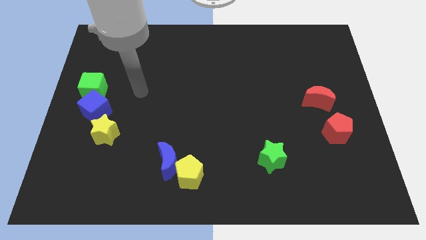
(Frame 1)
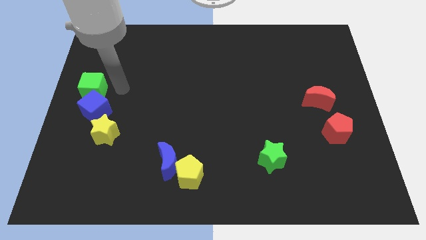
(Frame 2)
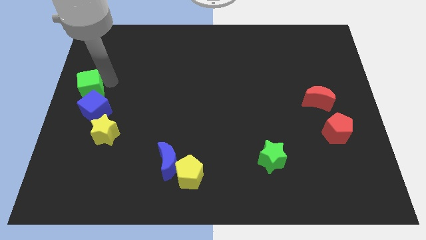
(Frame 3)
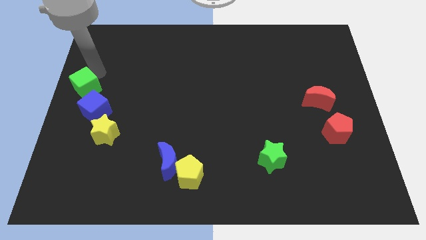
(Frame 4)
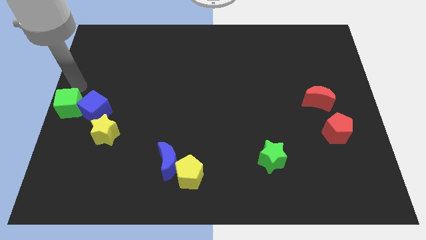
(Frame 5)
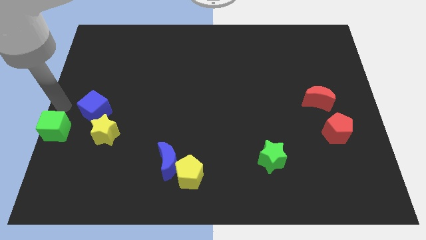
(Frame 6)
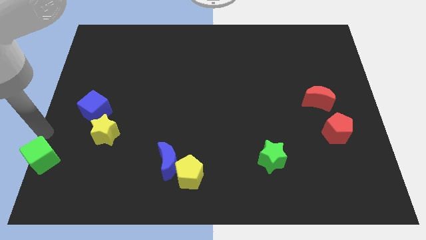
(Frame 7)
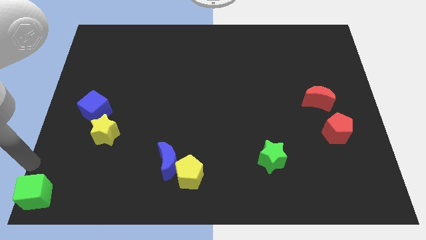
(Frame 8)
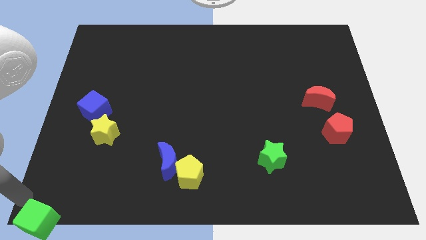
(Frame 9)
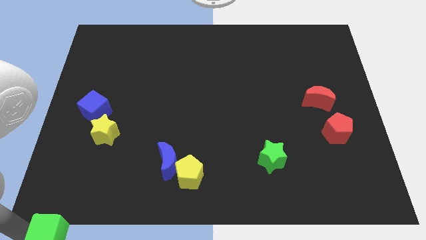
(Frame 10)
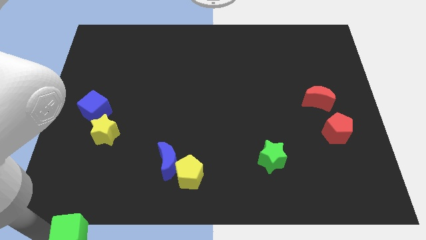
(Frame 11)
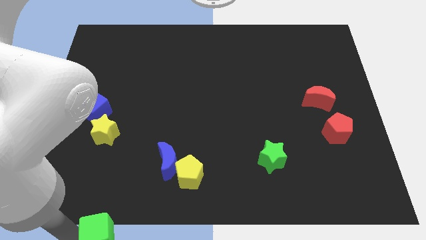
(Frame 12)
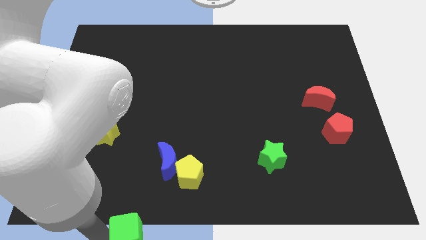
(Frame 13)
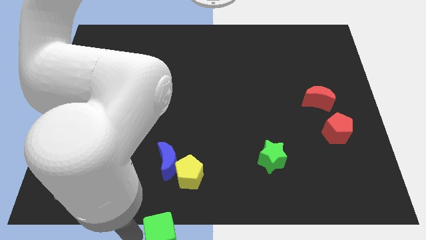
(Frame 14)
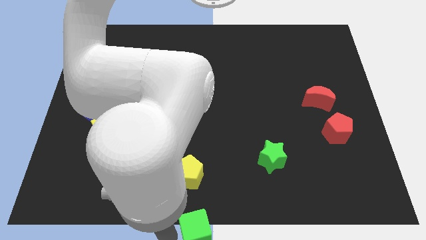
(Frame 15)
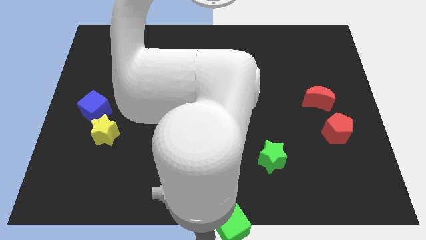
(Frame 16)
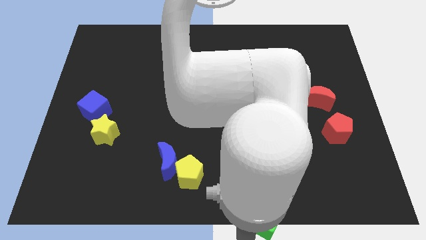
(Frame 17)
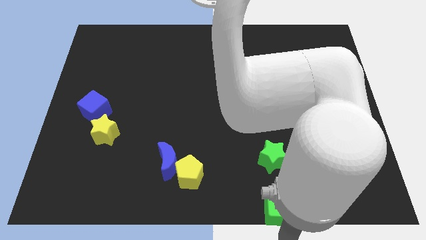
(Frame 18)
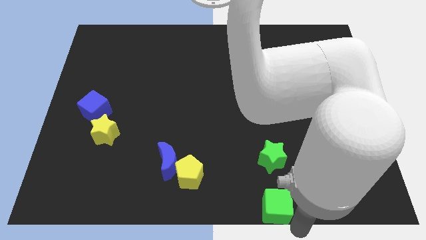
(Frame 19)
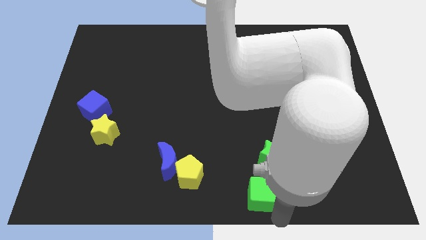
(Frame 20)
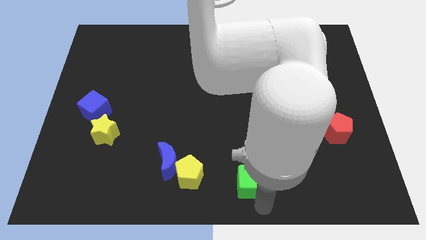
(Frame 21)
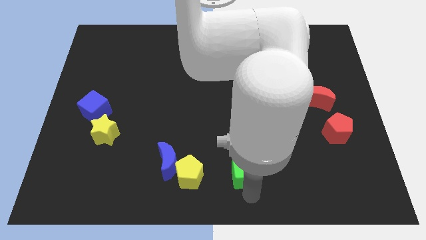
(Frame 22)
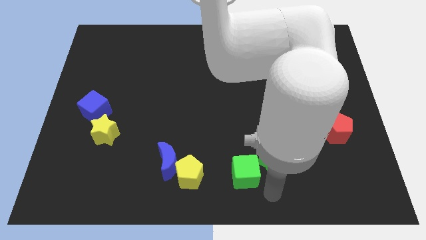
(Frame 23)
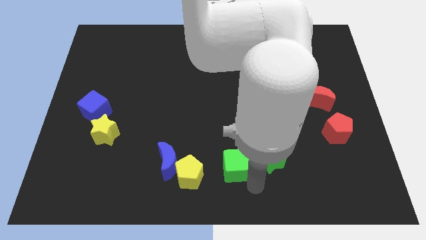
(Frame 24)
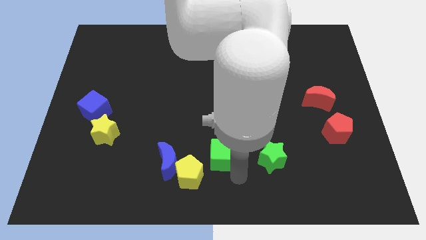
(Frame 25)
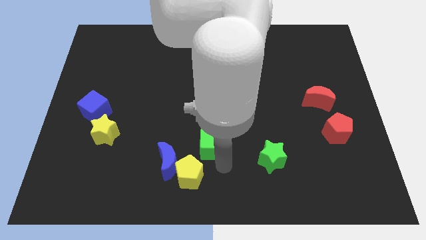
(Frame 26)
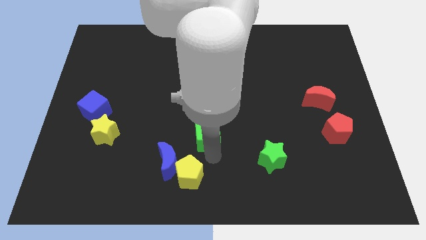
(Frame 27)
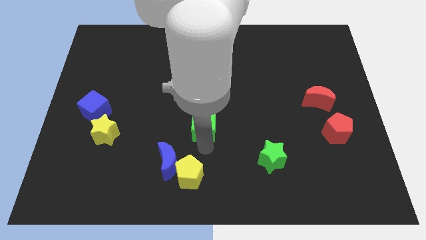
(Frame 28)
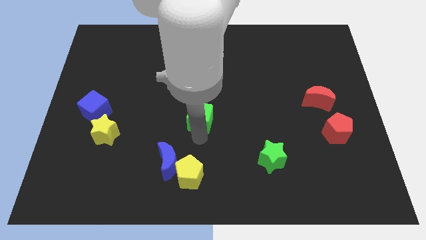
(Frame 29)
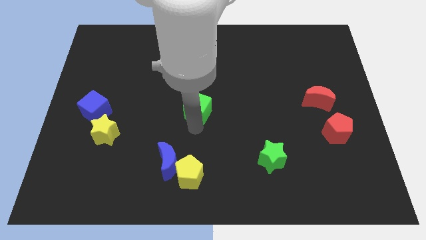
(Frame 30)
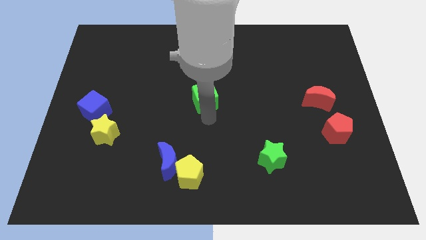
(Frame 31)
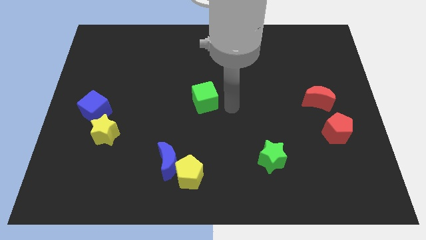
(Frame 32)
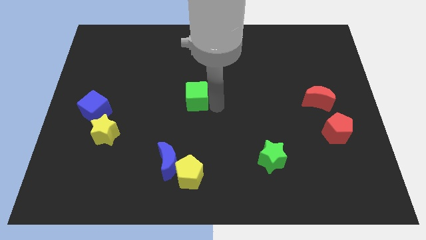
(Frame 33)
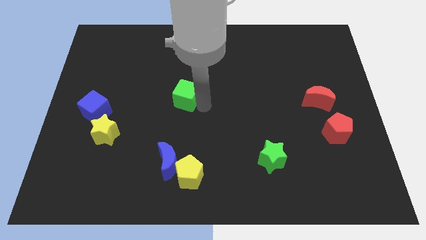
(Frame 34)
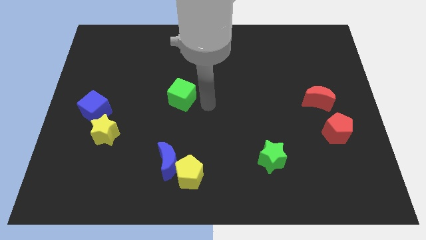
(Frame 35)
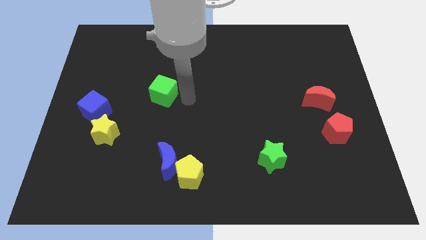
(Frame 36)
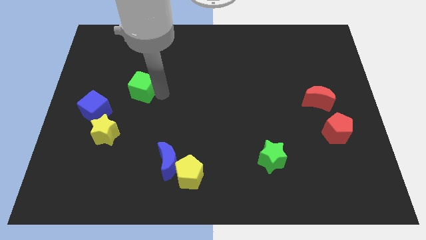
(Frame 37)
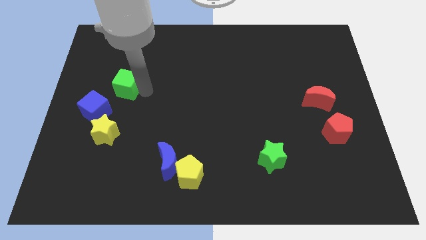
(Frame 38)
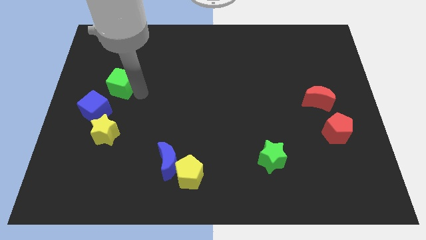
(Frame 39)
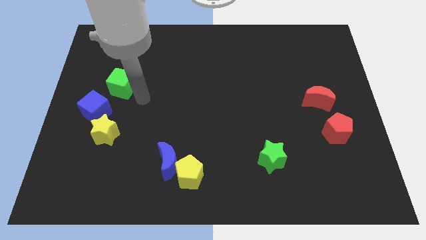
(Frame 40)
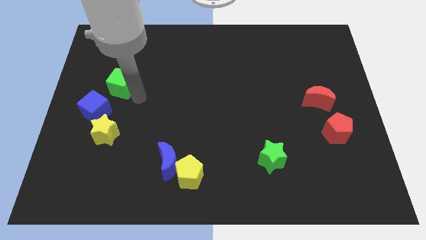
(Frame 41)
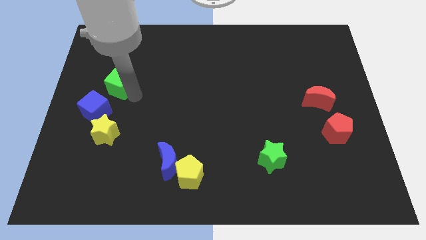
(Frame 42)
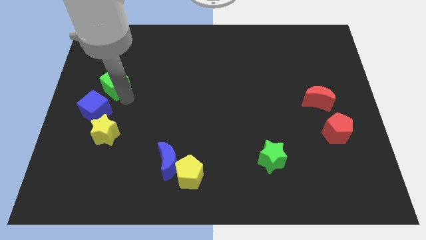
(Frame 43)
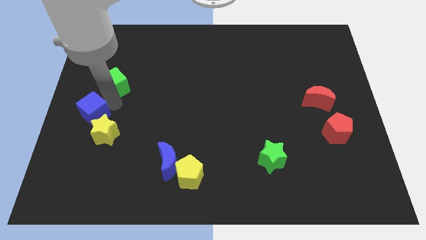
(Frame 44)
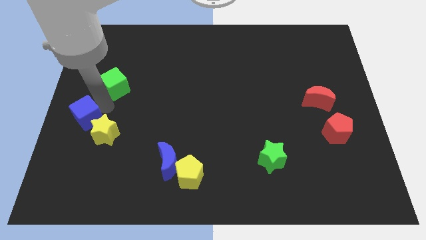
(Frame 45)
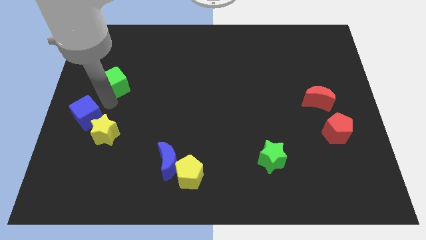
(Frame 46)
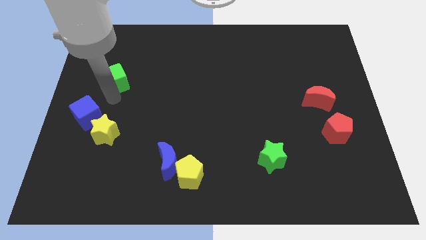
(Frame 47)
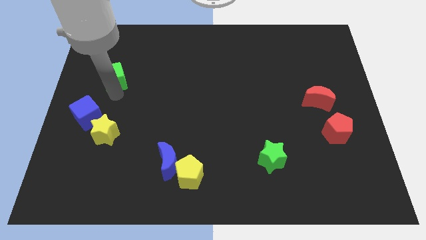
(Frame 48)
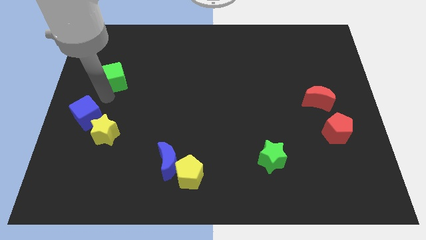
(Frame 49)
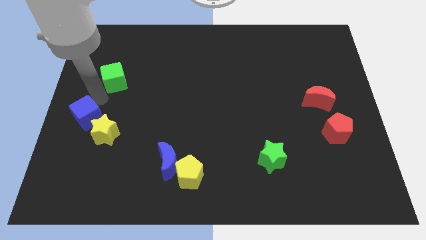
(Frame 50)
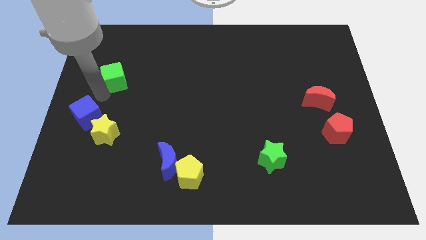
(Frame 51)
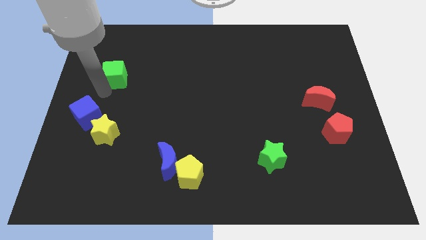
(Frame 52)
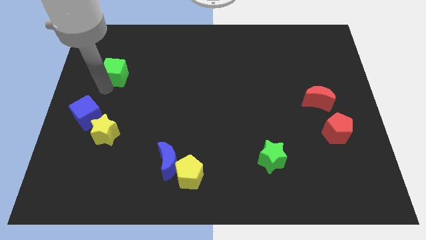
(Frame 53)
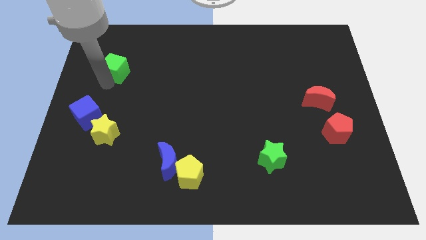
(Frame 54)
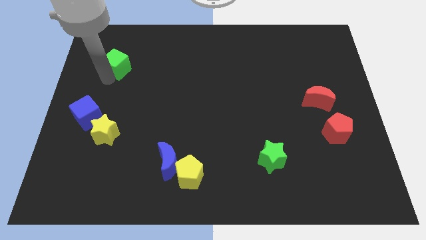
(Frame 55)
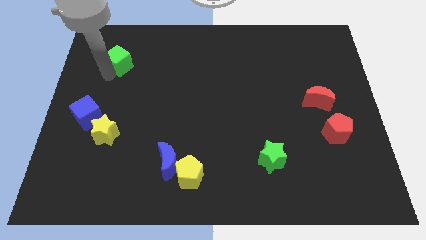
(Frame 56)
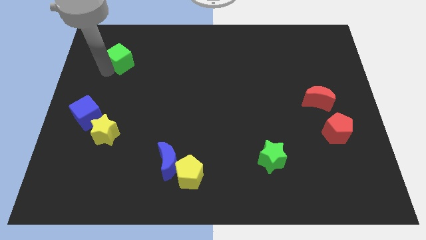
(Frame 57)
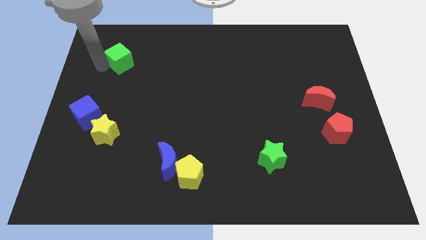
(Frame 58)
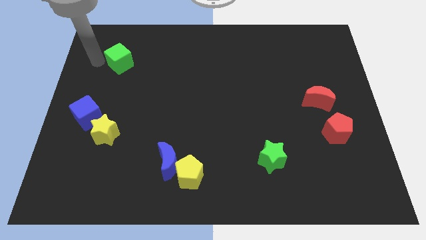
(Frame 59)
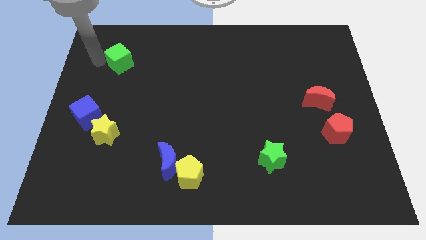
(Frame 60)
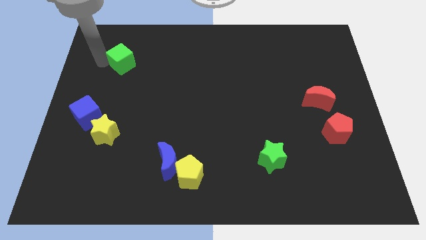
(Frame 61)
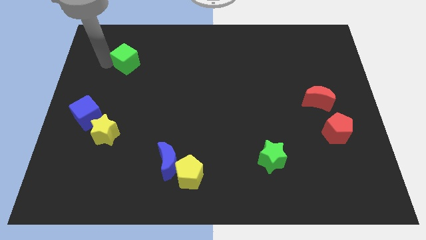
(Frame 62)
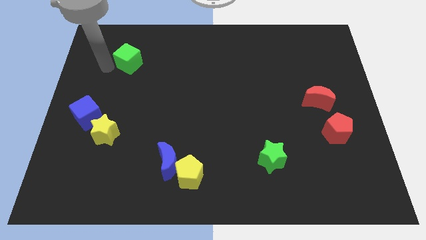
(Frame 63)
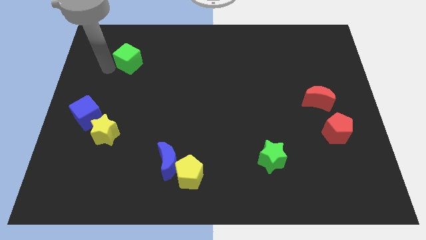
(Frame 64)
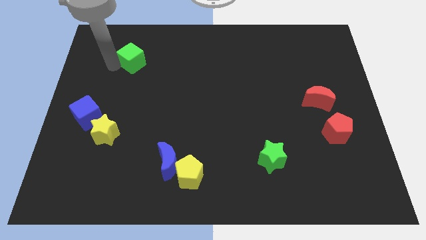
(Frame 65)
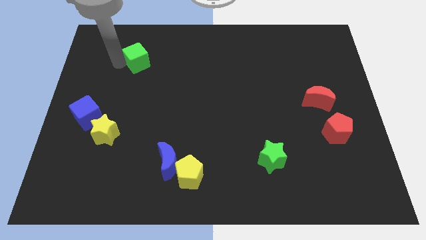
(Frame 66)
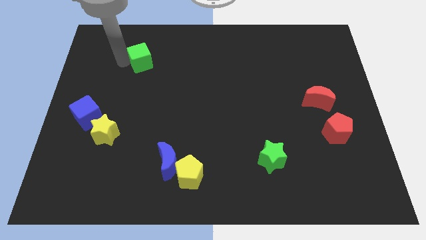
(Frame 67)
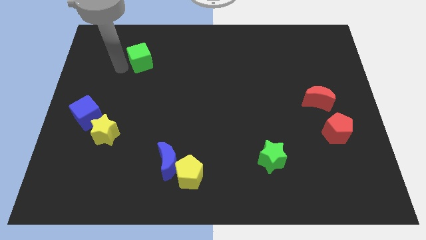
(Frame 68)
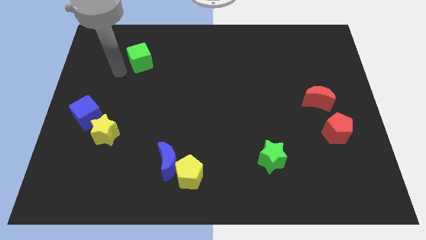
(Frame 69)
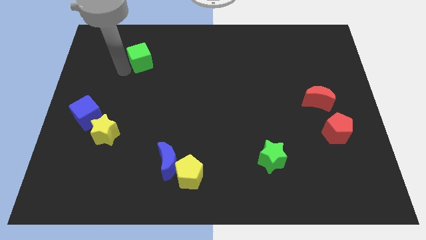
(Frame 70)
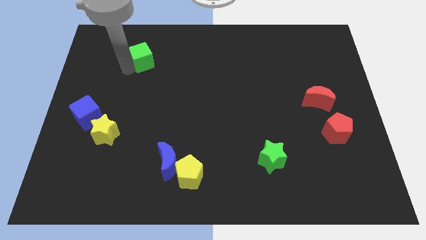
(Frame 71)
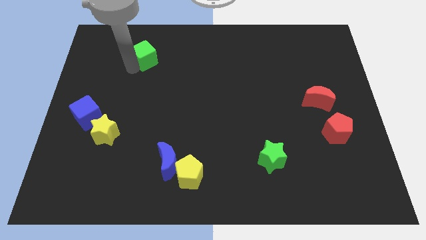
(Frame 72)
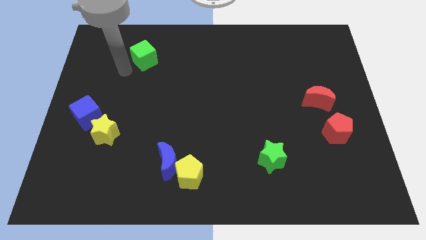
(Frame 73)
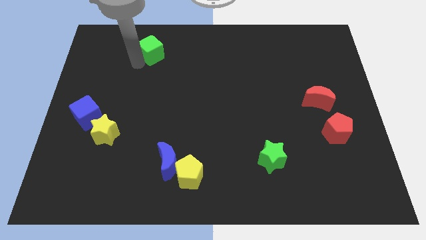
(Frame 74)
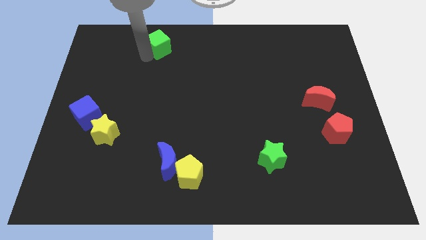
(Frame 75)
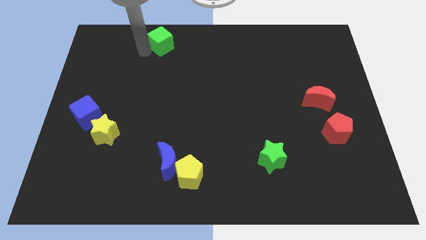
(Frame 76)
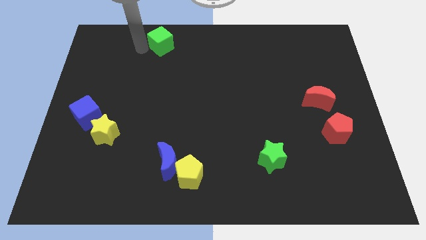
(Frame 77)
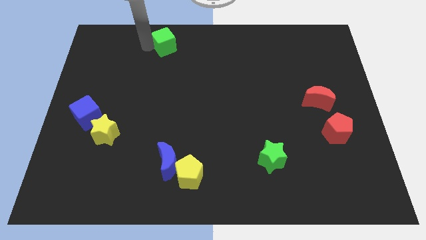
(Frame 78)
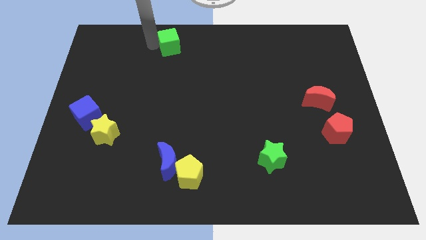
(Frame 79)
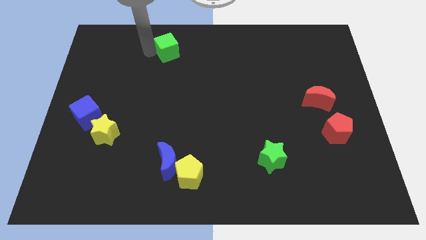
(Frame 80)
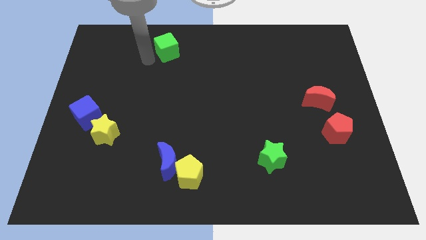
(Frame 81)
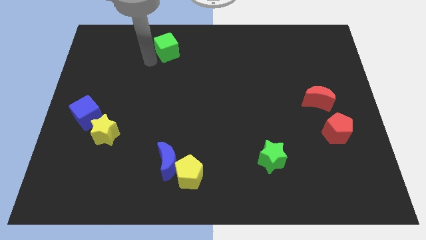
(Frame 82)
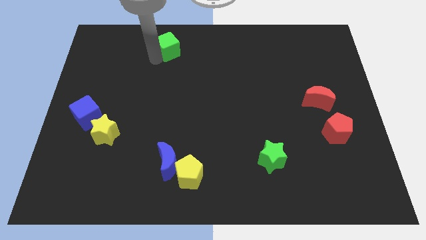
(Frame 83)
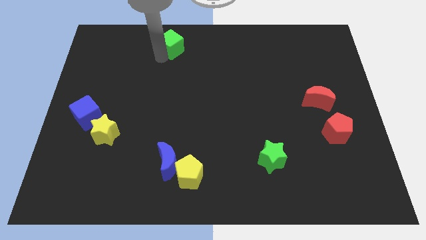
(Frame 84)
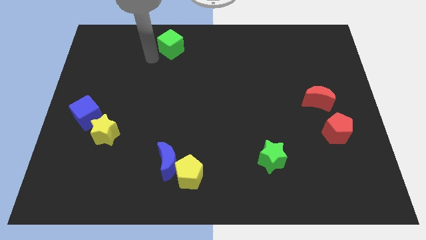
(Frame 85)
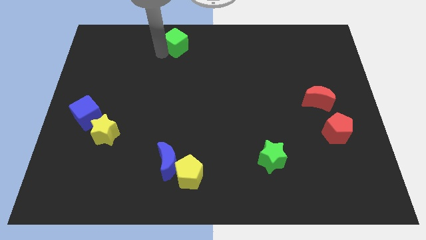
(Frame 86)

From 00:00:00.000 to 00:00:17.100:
slide the green cube to the top side
